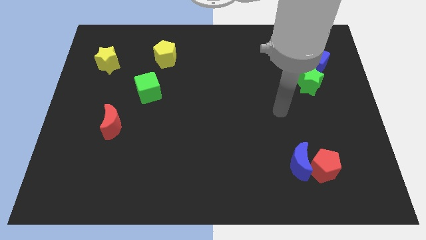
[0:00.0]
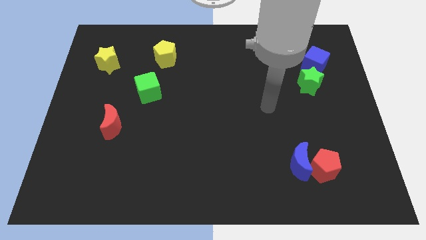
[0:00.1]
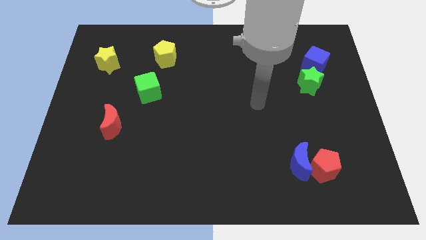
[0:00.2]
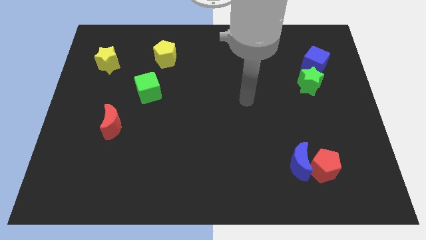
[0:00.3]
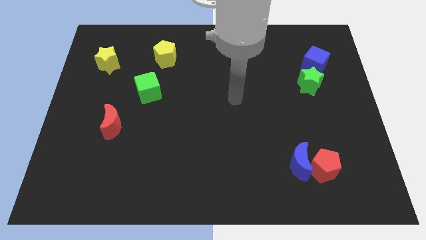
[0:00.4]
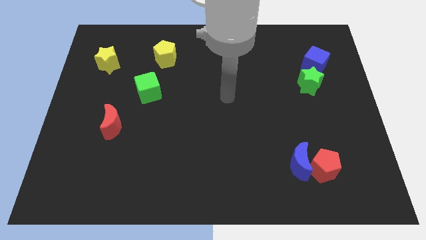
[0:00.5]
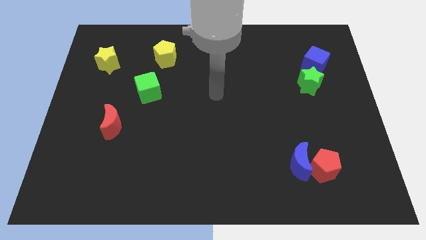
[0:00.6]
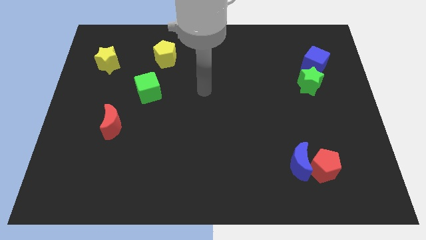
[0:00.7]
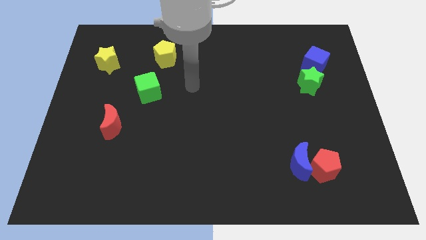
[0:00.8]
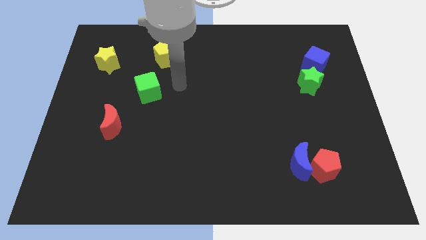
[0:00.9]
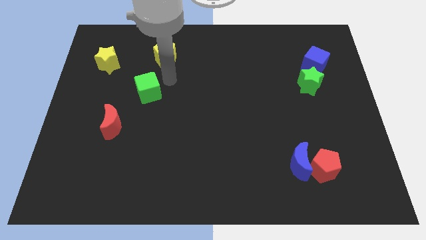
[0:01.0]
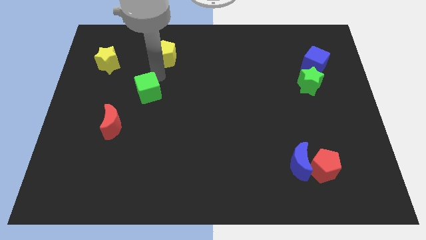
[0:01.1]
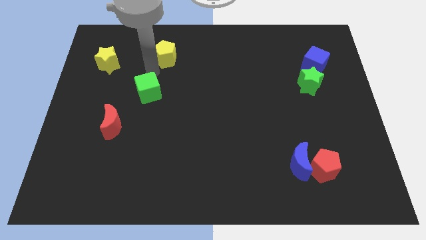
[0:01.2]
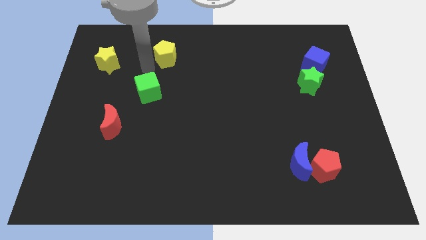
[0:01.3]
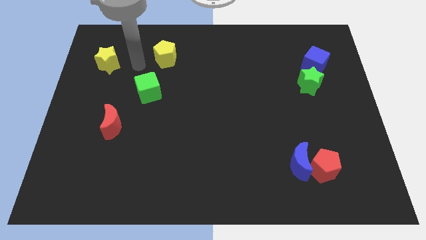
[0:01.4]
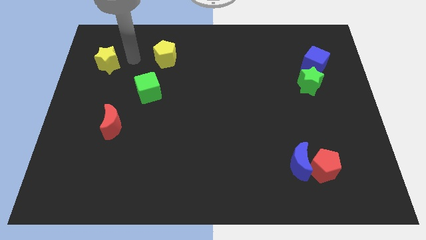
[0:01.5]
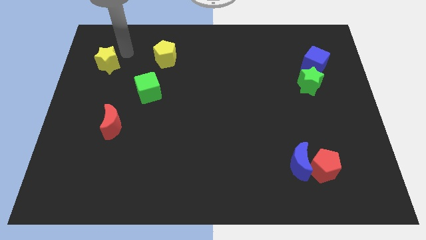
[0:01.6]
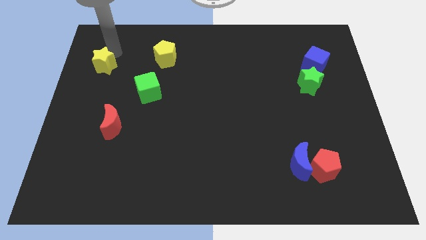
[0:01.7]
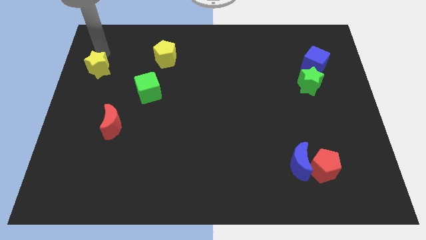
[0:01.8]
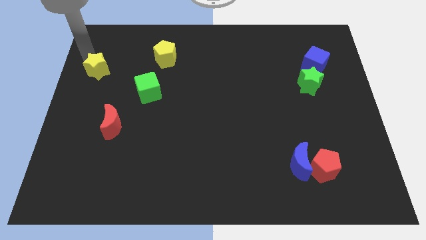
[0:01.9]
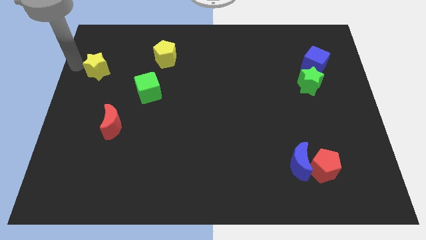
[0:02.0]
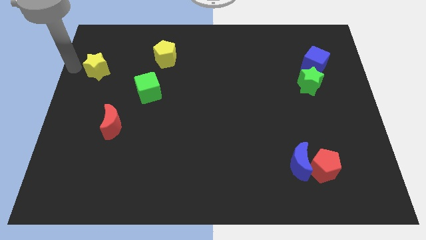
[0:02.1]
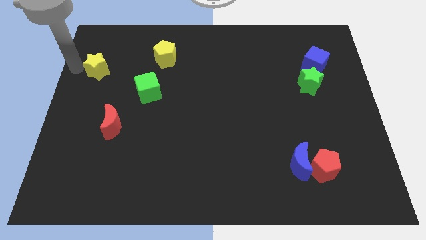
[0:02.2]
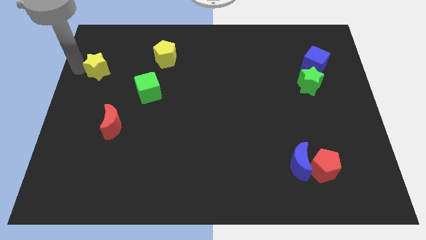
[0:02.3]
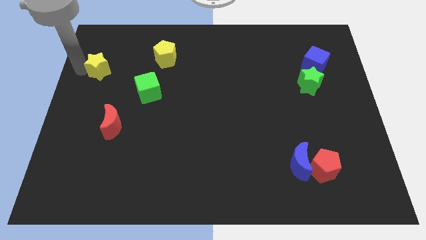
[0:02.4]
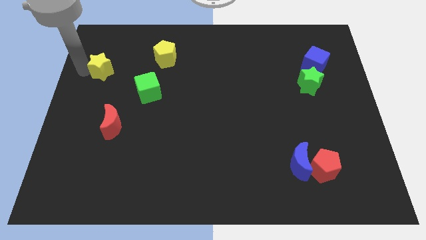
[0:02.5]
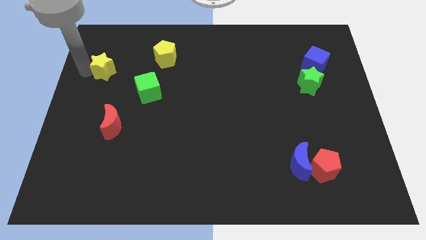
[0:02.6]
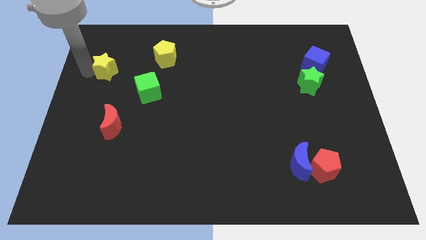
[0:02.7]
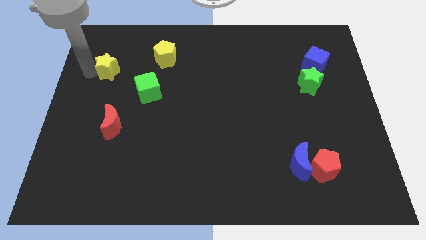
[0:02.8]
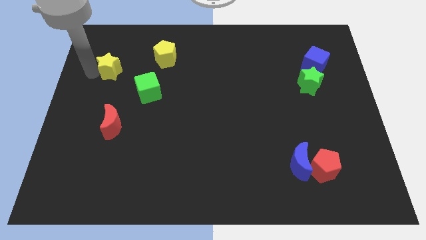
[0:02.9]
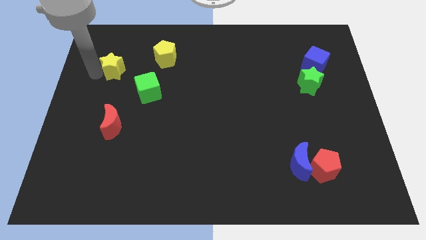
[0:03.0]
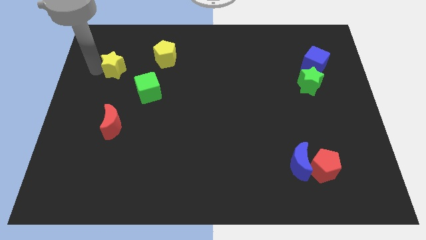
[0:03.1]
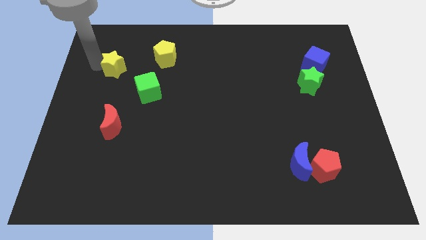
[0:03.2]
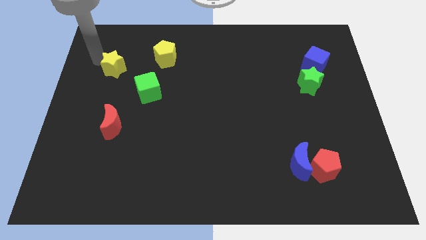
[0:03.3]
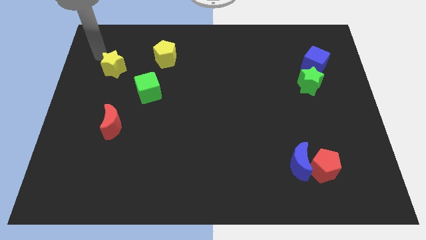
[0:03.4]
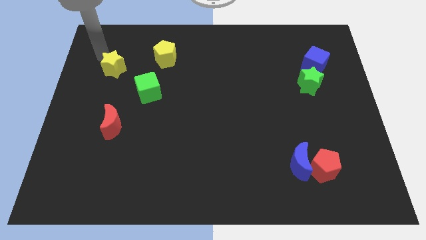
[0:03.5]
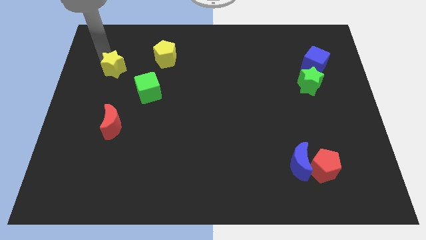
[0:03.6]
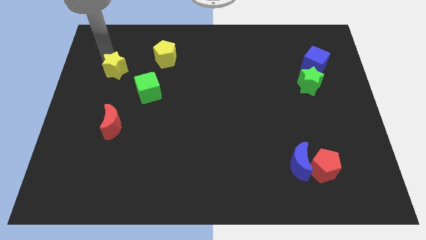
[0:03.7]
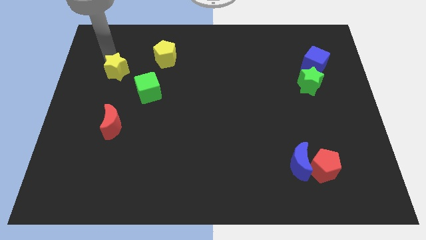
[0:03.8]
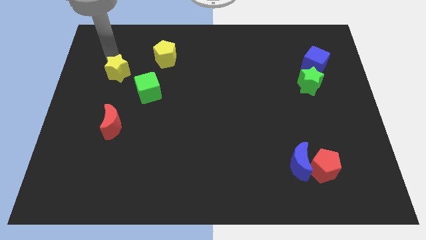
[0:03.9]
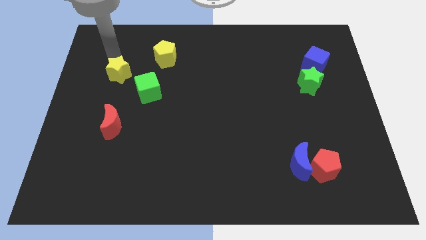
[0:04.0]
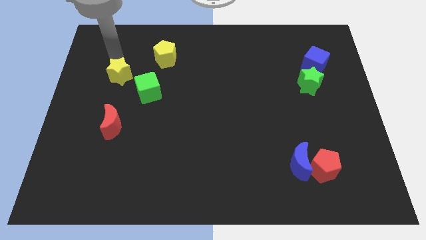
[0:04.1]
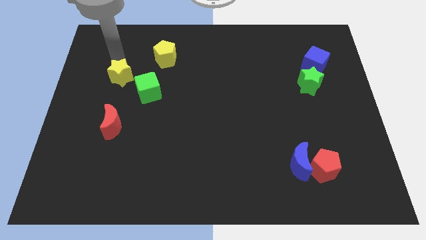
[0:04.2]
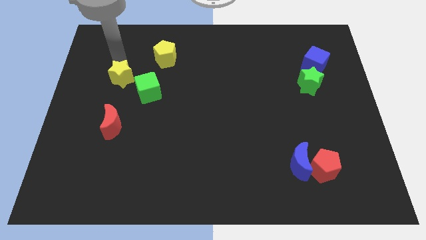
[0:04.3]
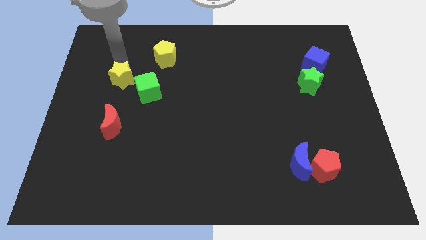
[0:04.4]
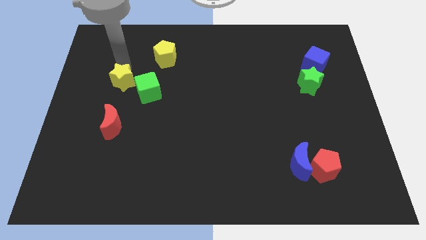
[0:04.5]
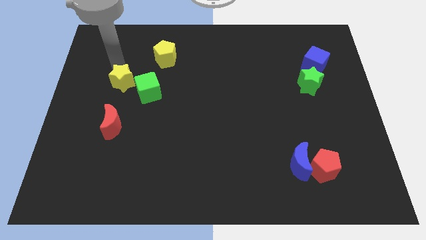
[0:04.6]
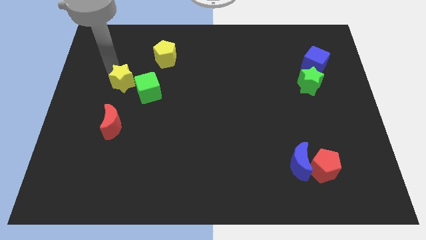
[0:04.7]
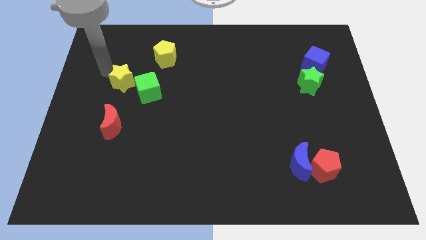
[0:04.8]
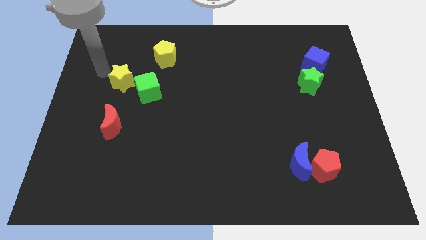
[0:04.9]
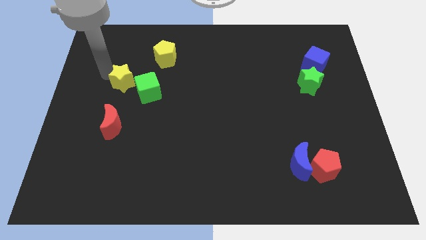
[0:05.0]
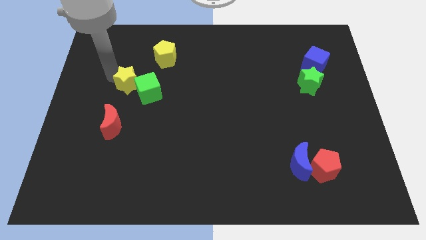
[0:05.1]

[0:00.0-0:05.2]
slide the yellow star to the green cube

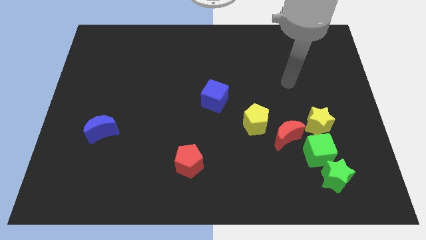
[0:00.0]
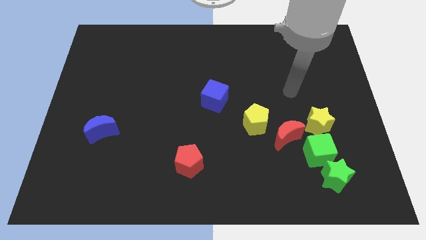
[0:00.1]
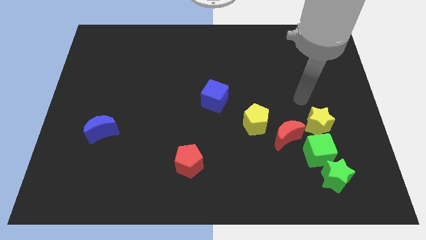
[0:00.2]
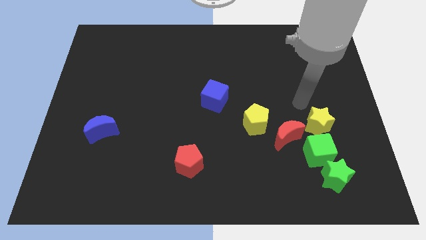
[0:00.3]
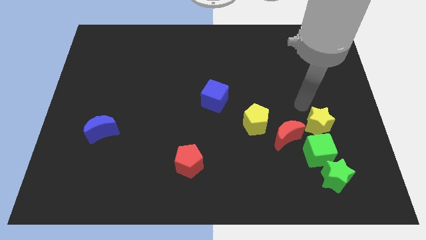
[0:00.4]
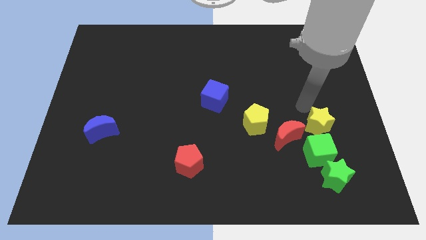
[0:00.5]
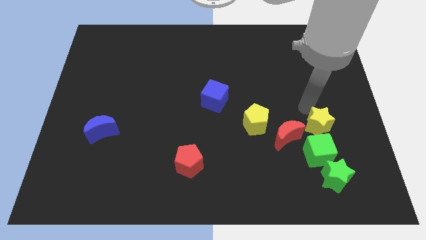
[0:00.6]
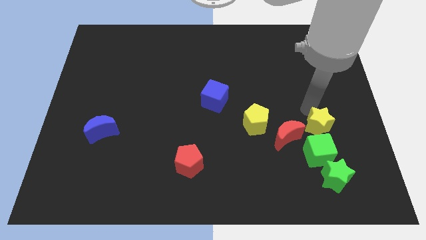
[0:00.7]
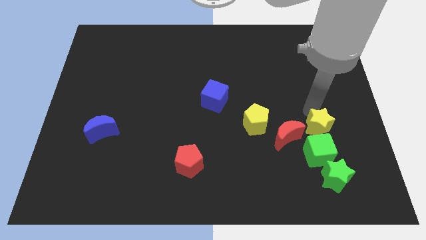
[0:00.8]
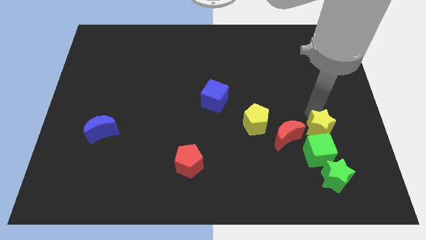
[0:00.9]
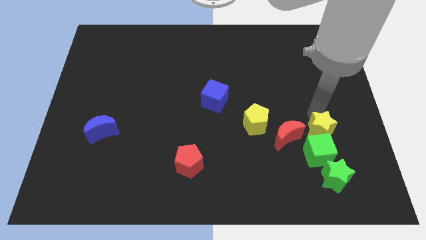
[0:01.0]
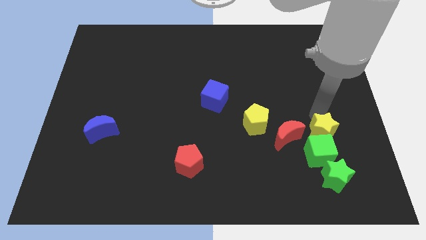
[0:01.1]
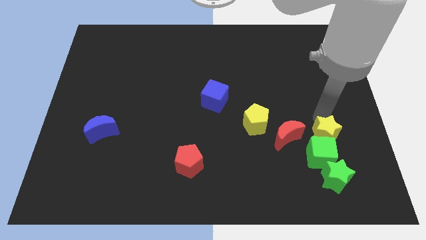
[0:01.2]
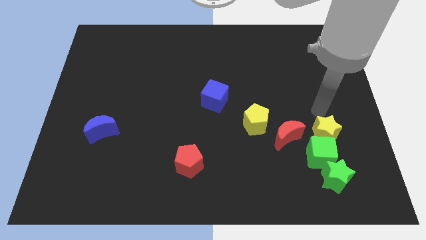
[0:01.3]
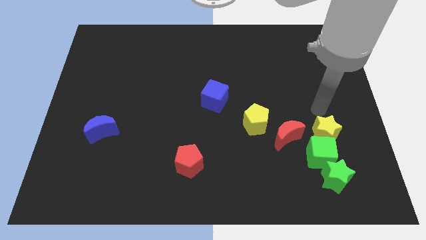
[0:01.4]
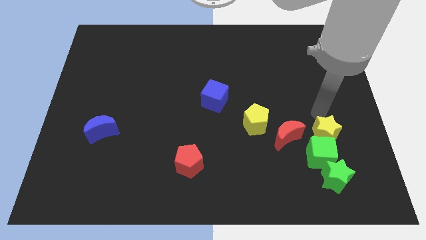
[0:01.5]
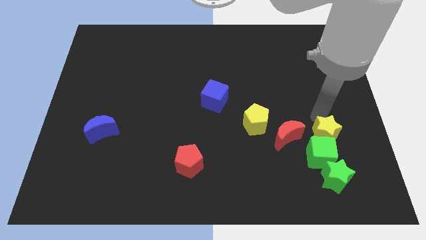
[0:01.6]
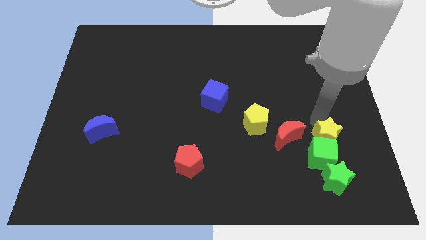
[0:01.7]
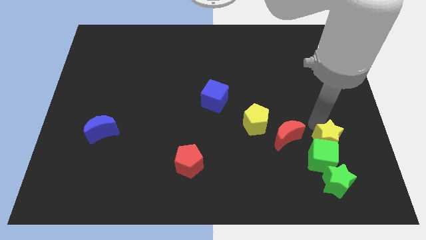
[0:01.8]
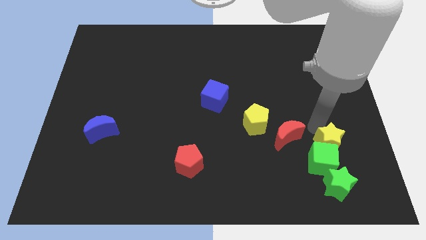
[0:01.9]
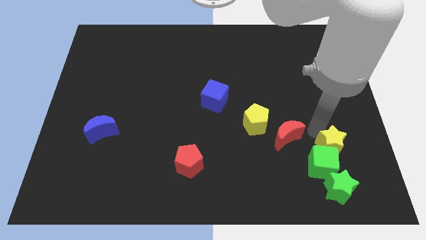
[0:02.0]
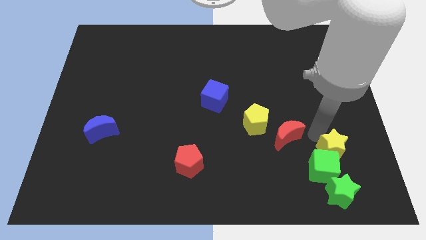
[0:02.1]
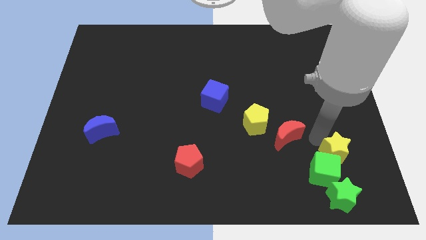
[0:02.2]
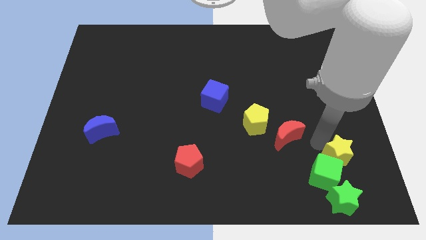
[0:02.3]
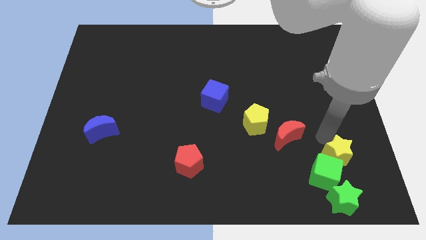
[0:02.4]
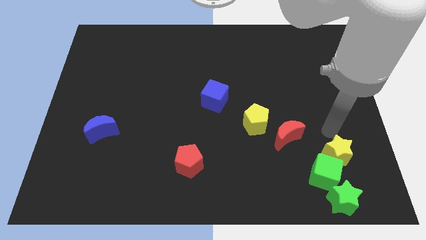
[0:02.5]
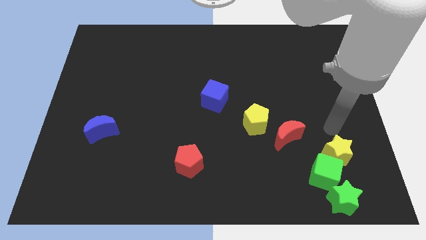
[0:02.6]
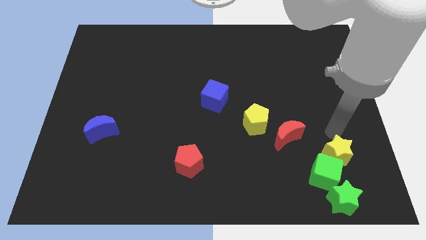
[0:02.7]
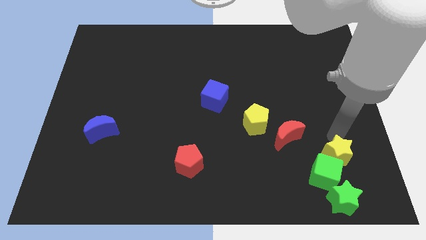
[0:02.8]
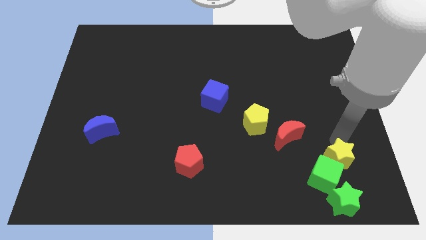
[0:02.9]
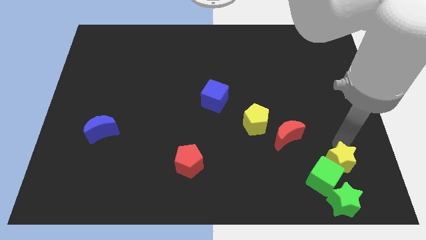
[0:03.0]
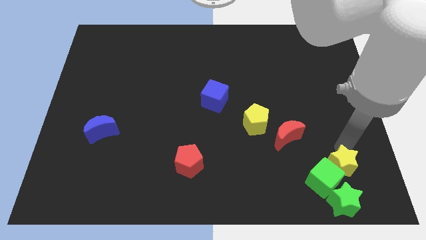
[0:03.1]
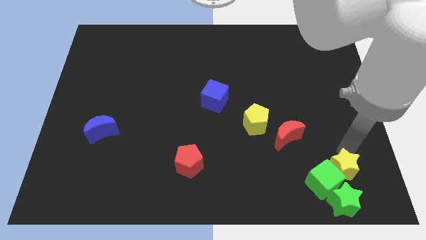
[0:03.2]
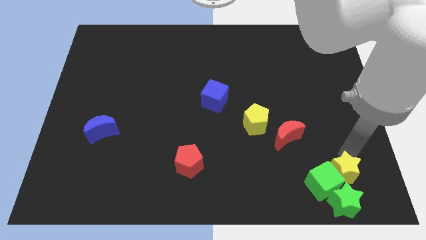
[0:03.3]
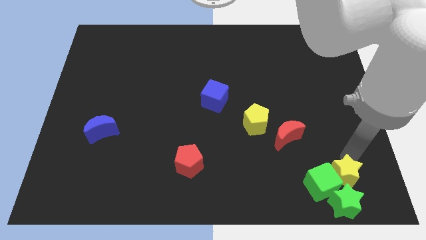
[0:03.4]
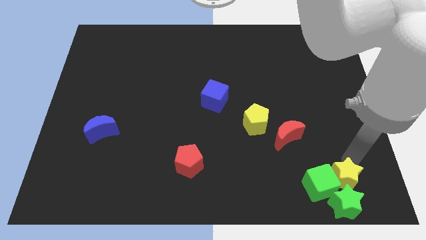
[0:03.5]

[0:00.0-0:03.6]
slide the yellow star next to the green star
